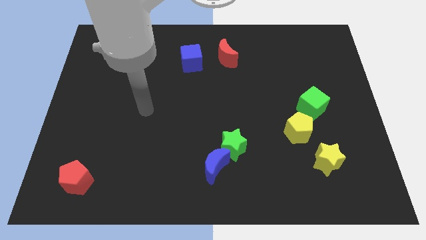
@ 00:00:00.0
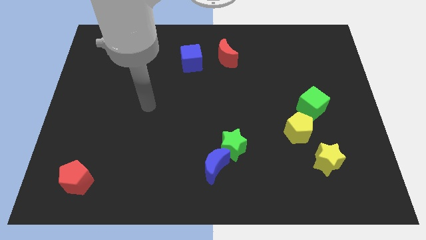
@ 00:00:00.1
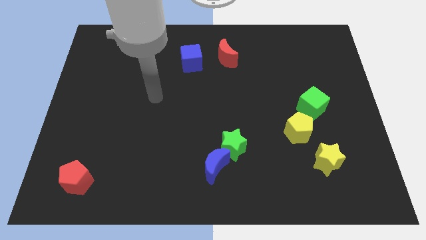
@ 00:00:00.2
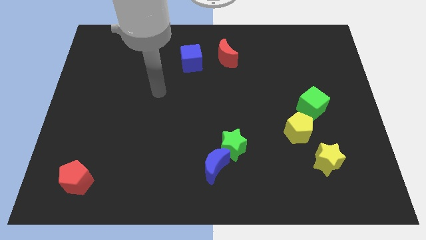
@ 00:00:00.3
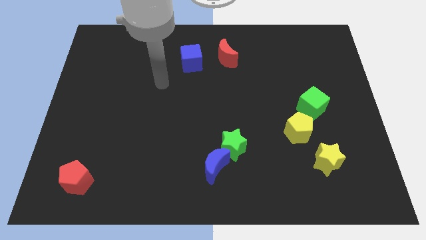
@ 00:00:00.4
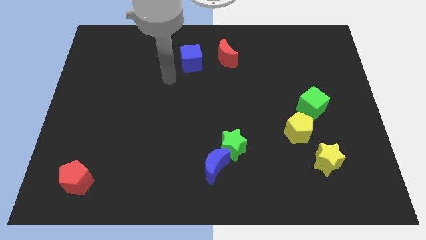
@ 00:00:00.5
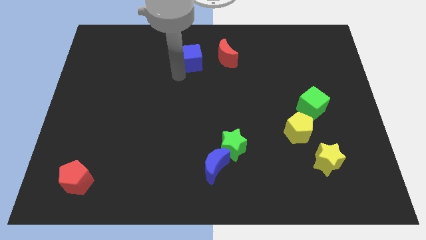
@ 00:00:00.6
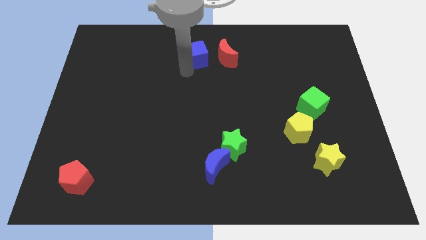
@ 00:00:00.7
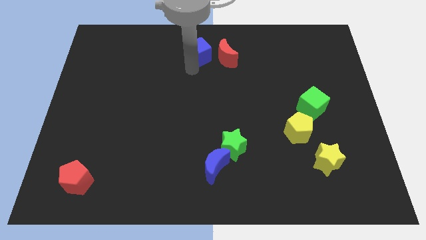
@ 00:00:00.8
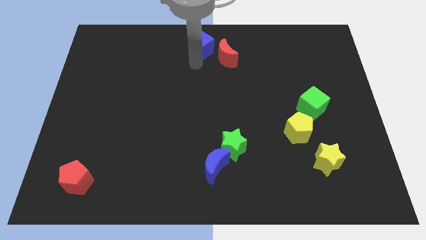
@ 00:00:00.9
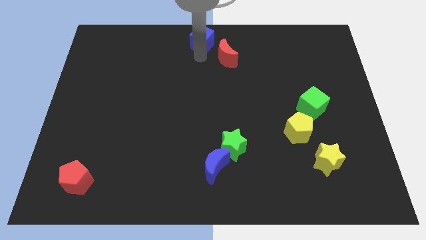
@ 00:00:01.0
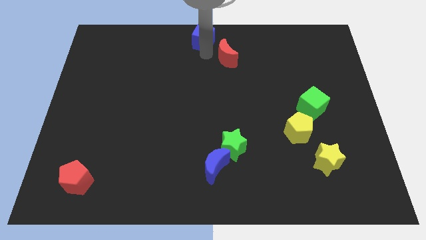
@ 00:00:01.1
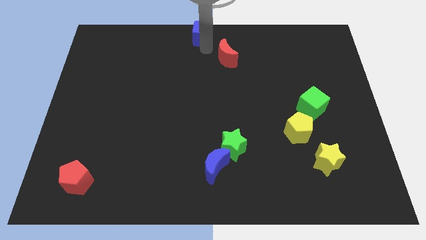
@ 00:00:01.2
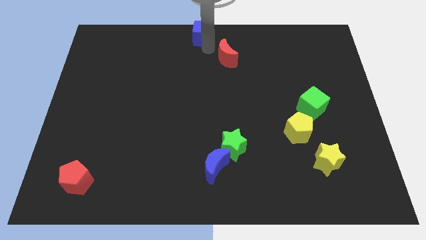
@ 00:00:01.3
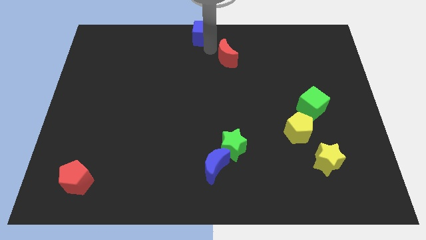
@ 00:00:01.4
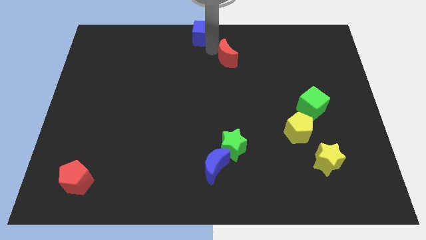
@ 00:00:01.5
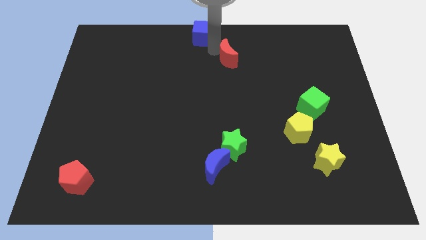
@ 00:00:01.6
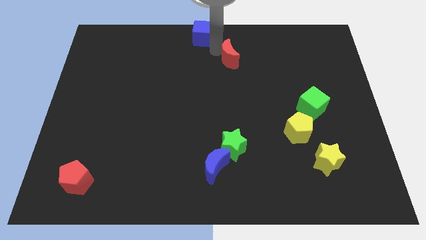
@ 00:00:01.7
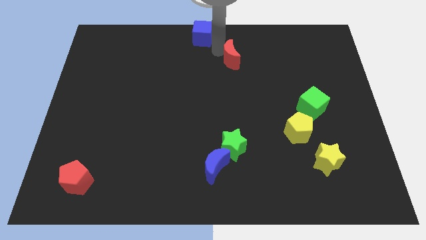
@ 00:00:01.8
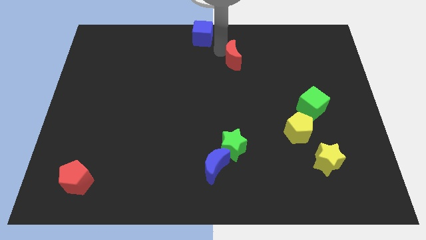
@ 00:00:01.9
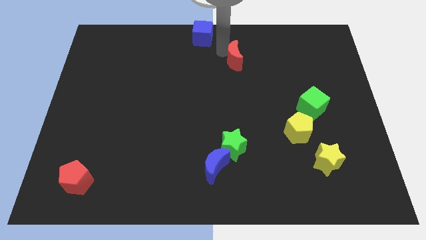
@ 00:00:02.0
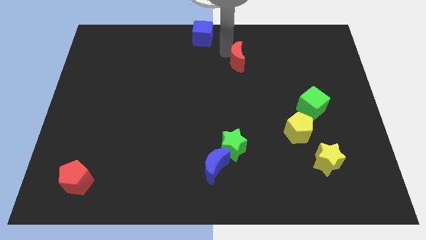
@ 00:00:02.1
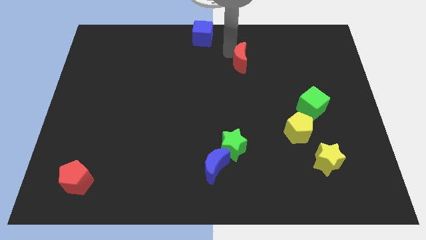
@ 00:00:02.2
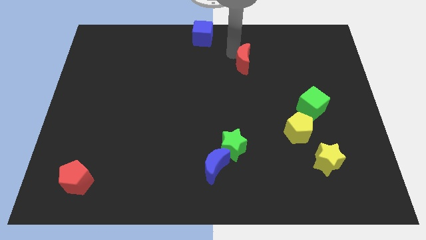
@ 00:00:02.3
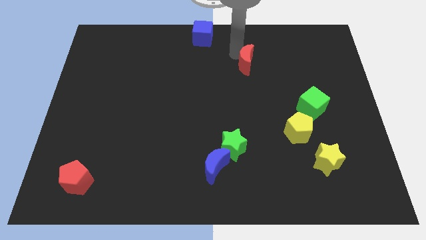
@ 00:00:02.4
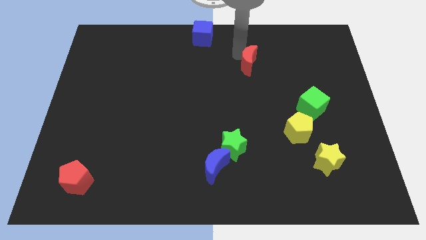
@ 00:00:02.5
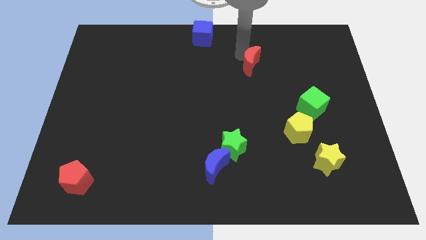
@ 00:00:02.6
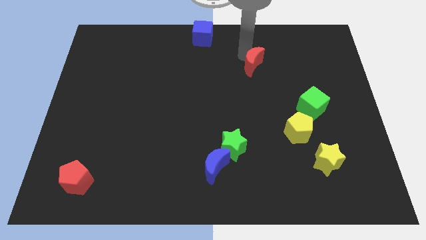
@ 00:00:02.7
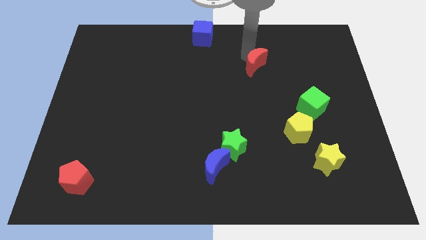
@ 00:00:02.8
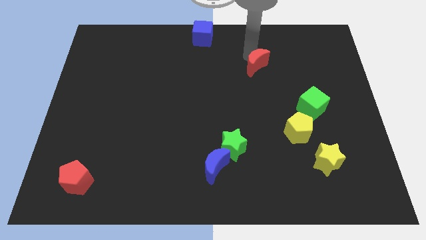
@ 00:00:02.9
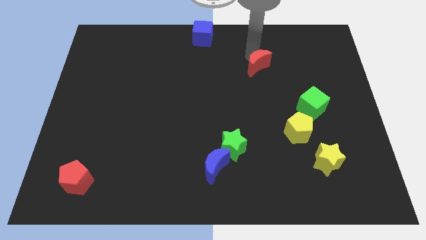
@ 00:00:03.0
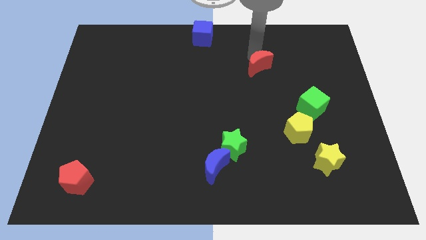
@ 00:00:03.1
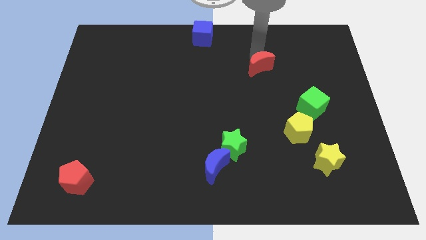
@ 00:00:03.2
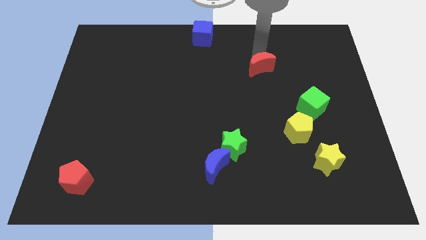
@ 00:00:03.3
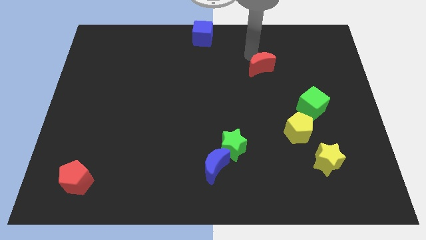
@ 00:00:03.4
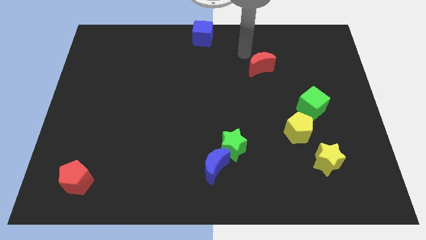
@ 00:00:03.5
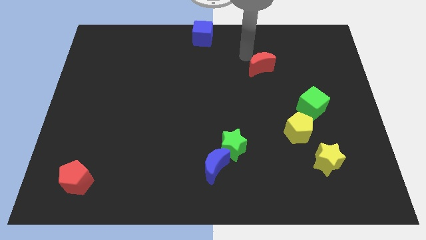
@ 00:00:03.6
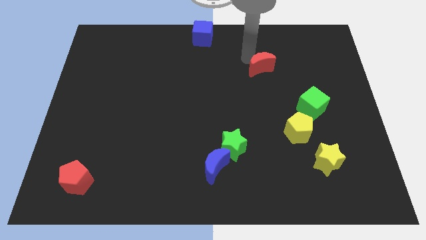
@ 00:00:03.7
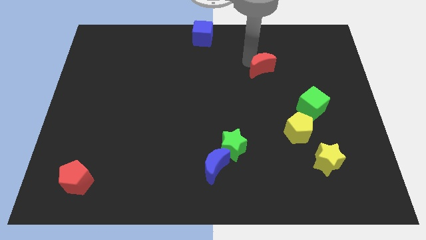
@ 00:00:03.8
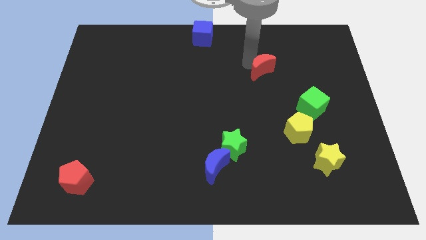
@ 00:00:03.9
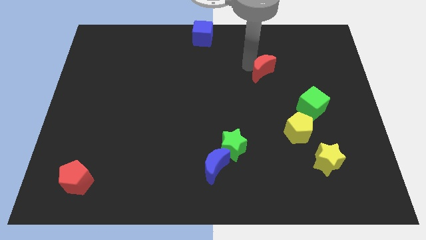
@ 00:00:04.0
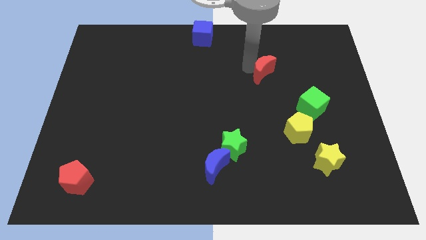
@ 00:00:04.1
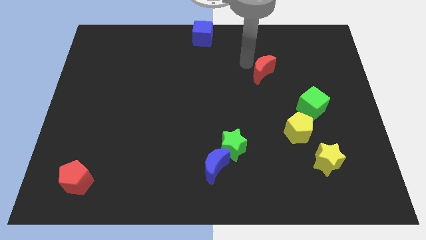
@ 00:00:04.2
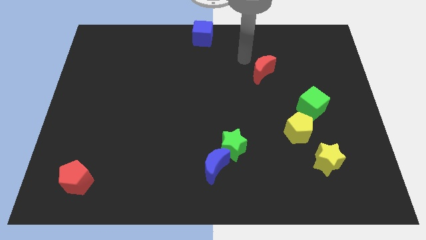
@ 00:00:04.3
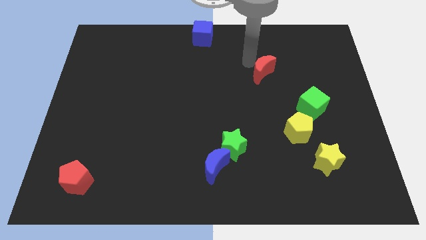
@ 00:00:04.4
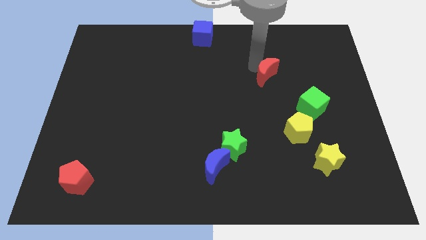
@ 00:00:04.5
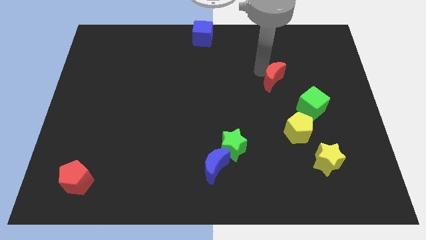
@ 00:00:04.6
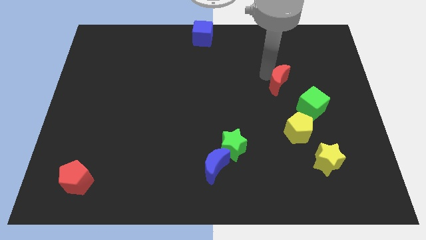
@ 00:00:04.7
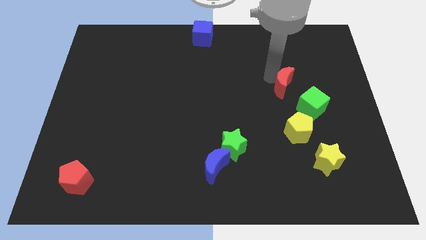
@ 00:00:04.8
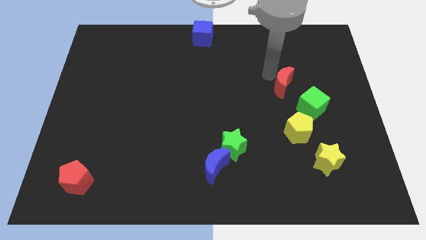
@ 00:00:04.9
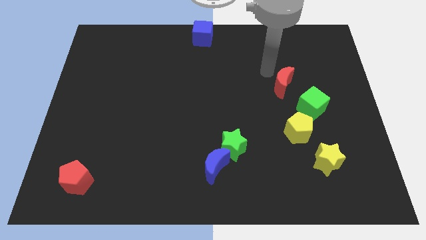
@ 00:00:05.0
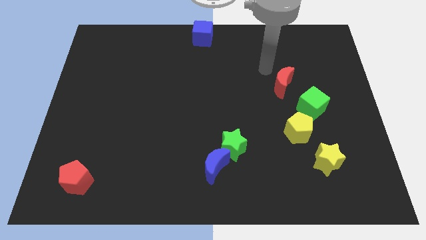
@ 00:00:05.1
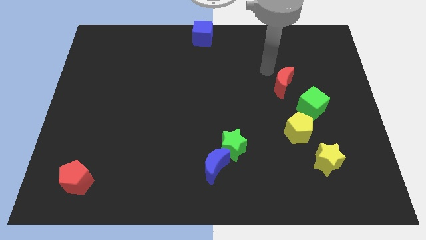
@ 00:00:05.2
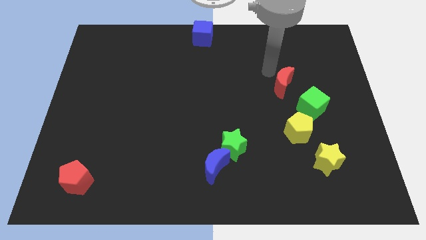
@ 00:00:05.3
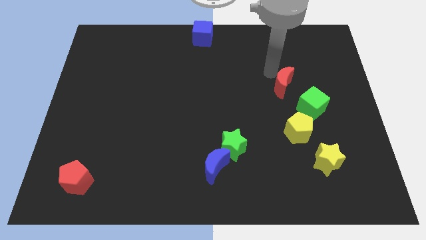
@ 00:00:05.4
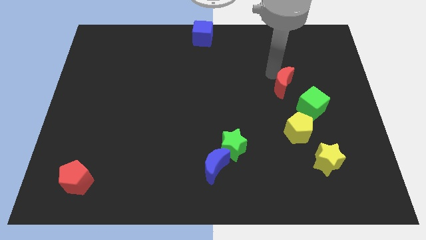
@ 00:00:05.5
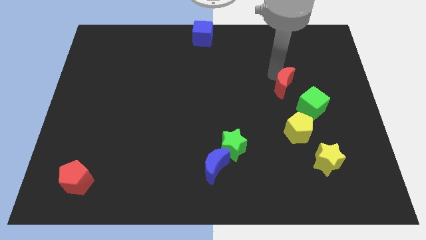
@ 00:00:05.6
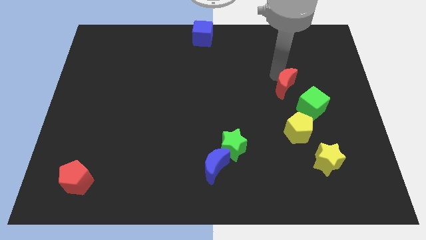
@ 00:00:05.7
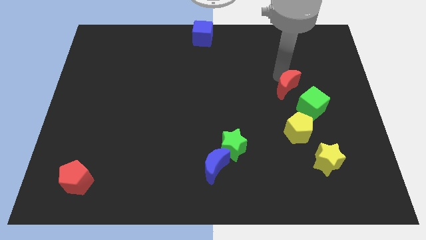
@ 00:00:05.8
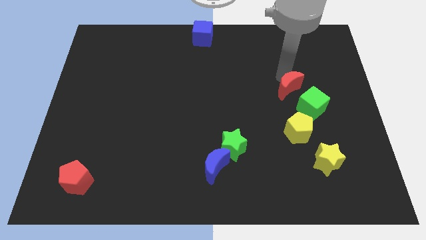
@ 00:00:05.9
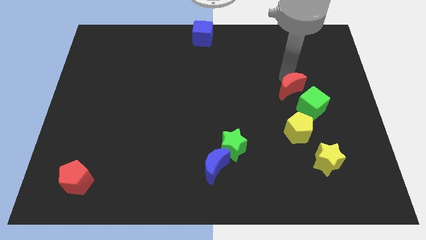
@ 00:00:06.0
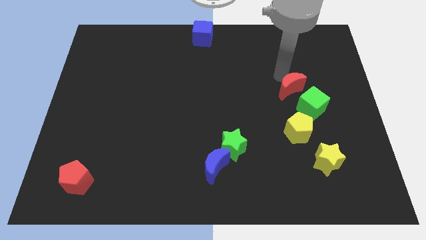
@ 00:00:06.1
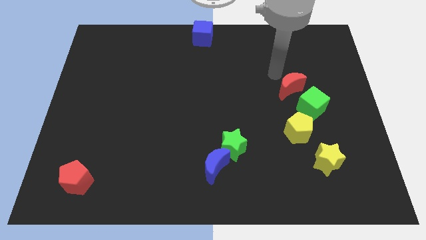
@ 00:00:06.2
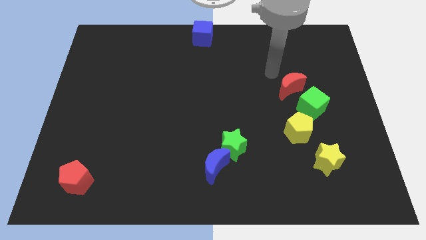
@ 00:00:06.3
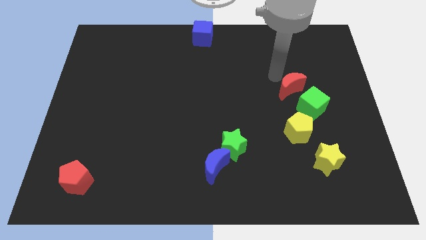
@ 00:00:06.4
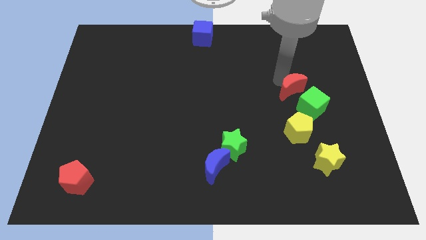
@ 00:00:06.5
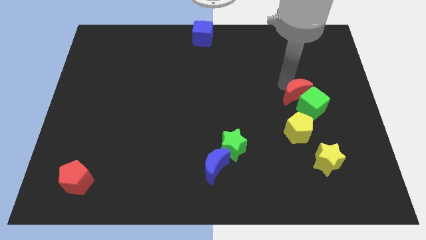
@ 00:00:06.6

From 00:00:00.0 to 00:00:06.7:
push the red moon towards the green cube

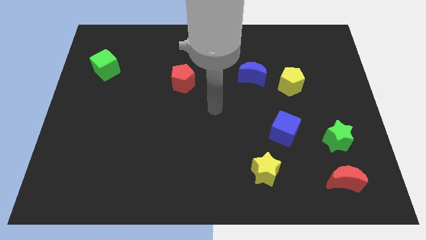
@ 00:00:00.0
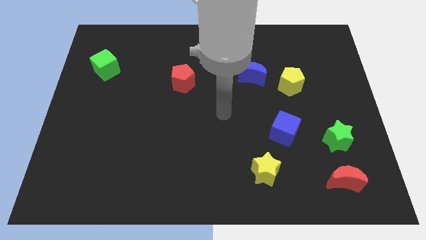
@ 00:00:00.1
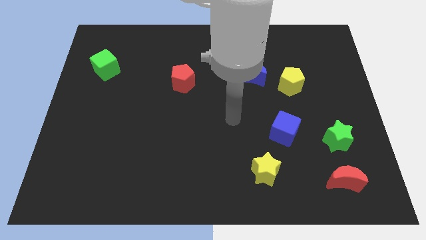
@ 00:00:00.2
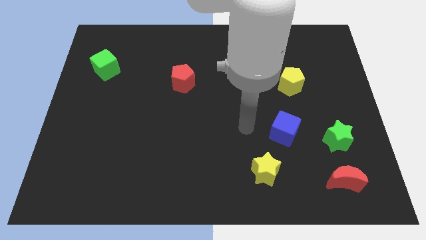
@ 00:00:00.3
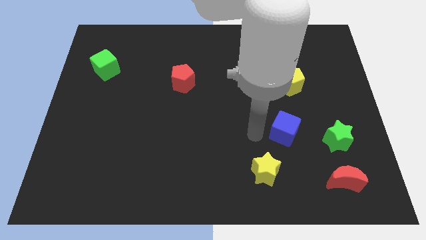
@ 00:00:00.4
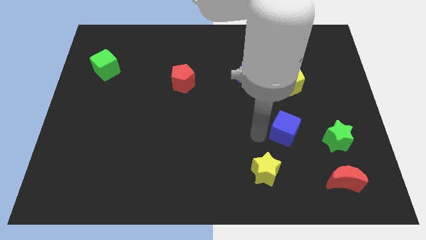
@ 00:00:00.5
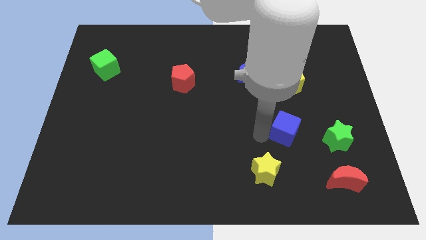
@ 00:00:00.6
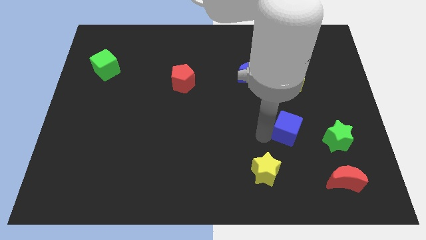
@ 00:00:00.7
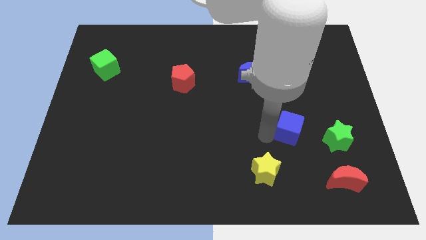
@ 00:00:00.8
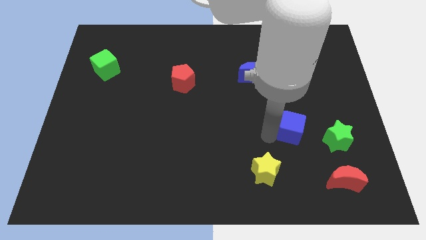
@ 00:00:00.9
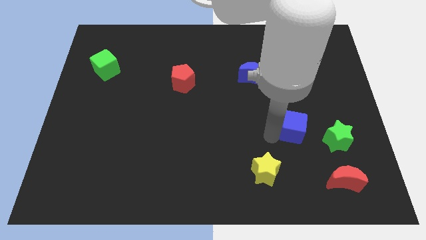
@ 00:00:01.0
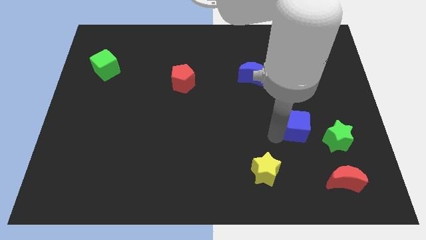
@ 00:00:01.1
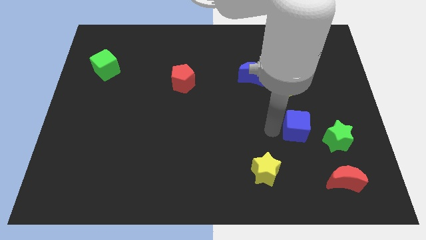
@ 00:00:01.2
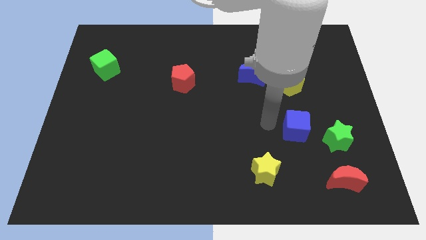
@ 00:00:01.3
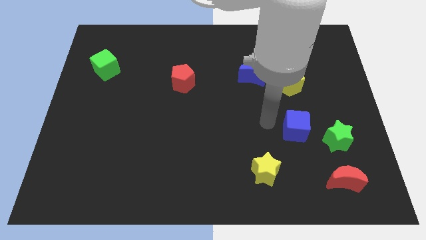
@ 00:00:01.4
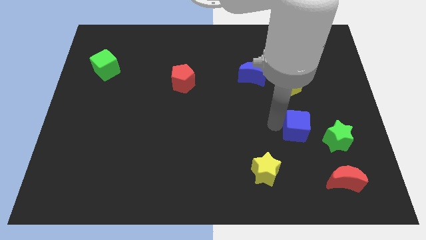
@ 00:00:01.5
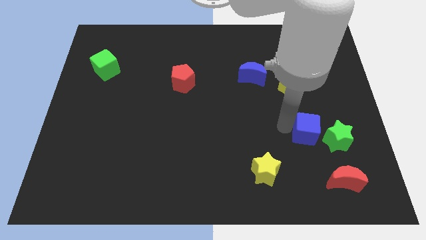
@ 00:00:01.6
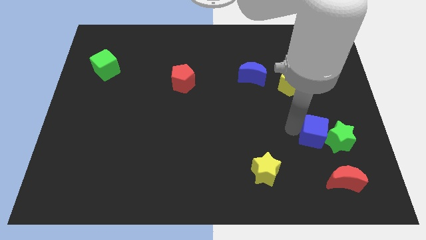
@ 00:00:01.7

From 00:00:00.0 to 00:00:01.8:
put the blue cube to the green star
